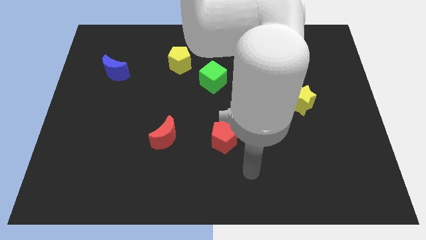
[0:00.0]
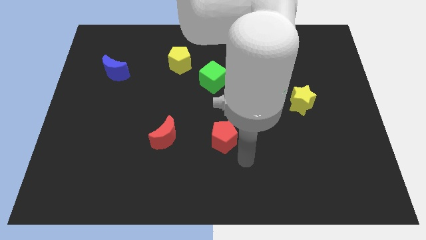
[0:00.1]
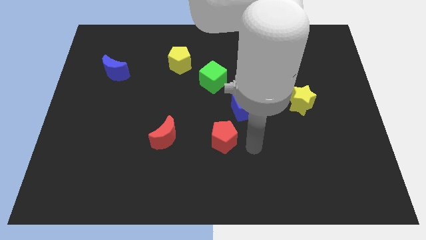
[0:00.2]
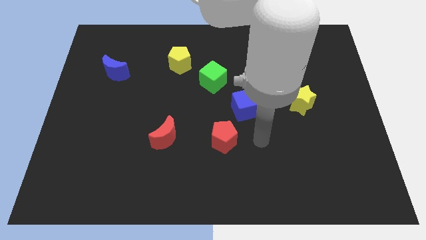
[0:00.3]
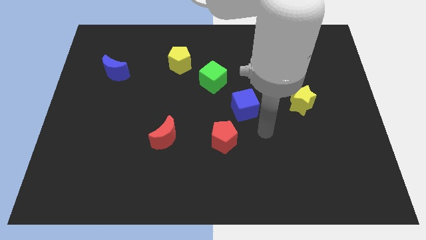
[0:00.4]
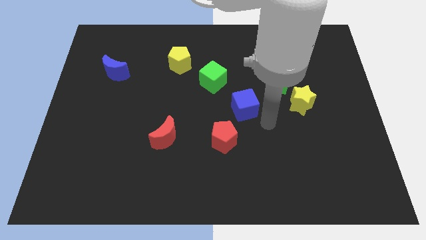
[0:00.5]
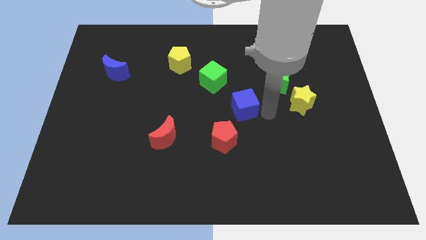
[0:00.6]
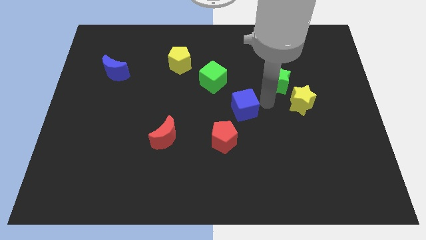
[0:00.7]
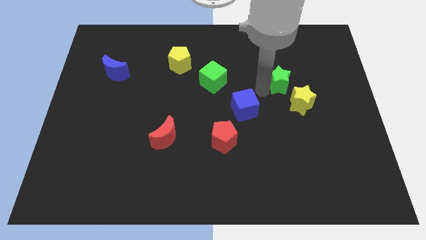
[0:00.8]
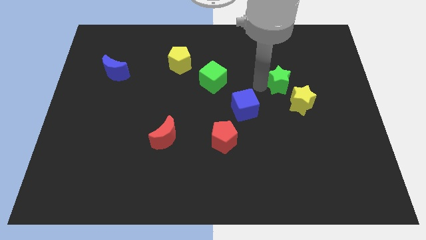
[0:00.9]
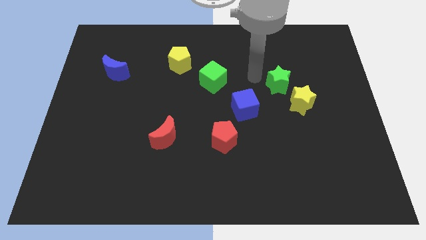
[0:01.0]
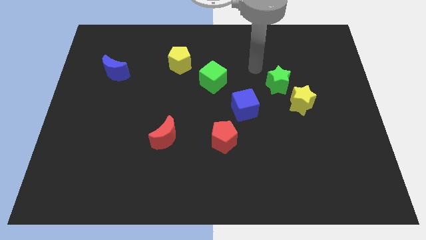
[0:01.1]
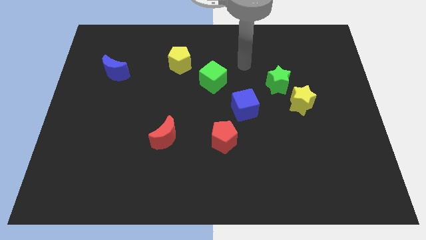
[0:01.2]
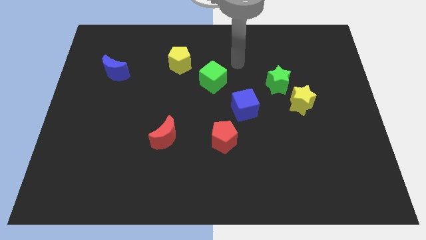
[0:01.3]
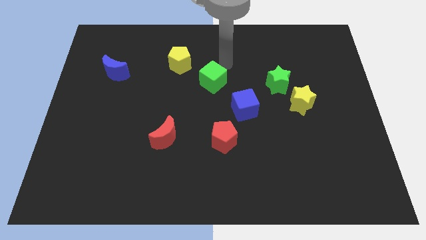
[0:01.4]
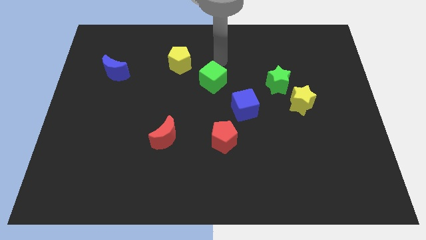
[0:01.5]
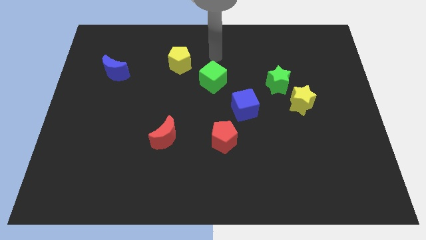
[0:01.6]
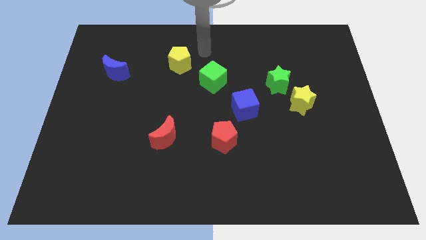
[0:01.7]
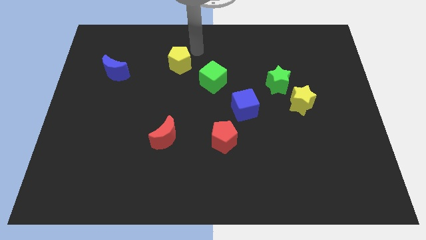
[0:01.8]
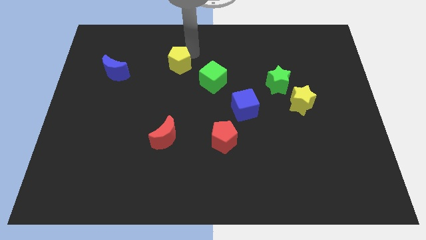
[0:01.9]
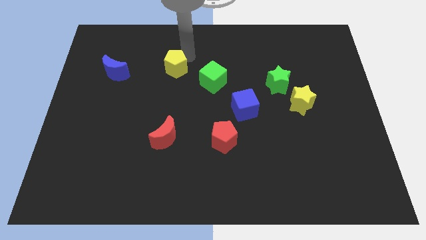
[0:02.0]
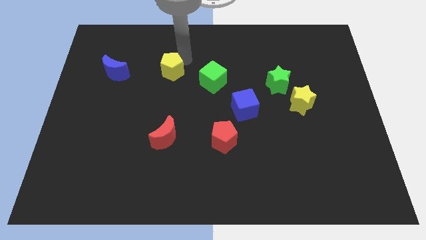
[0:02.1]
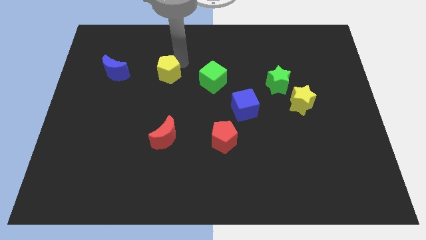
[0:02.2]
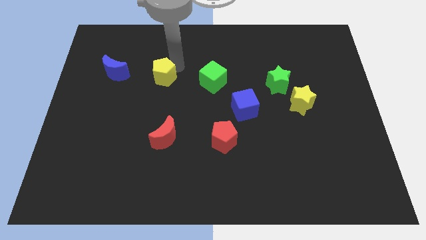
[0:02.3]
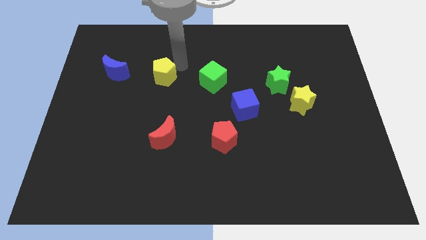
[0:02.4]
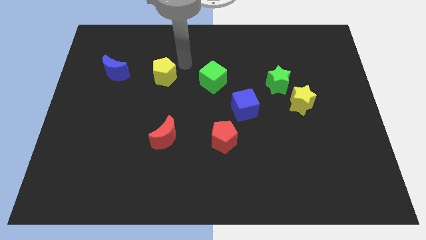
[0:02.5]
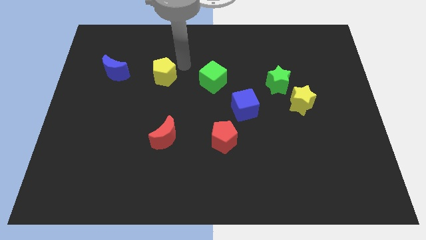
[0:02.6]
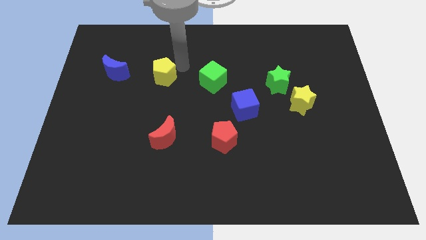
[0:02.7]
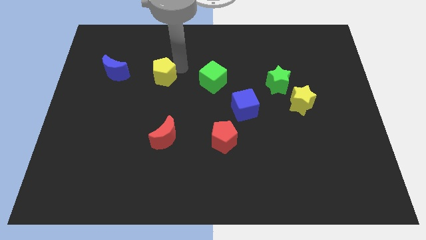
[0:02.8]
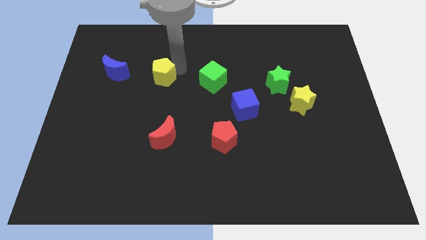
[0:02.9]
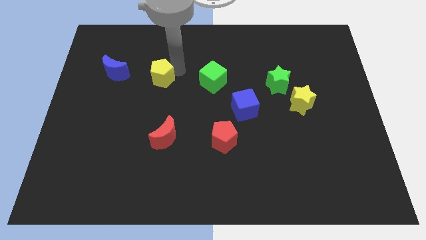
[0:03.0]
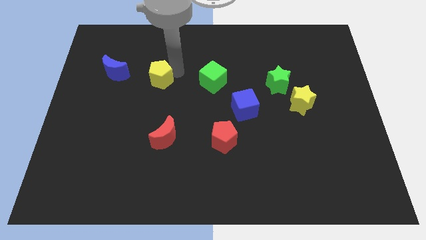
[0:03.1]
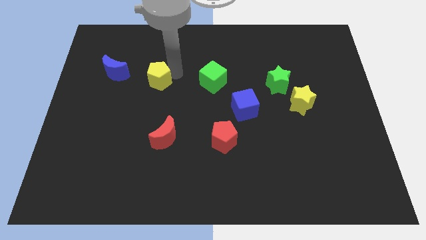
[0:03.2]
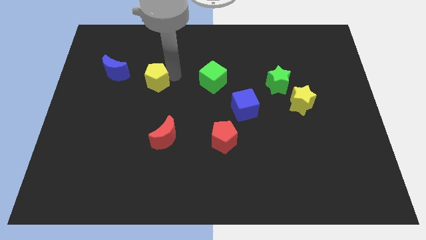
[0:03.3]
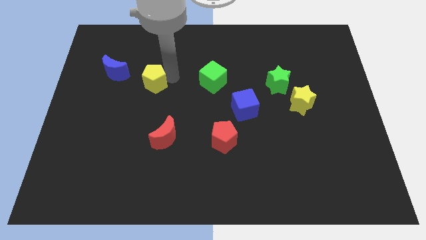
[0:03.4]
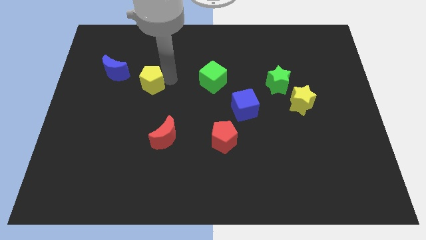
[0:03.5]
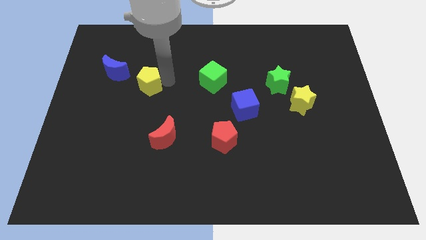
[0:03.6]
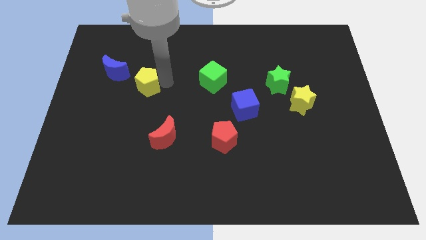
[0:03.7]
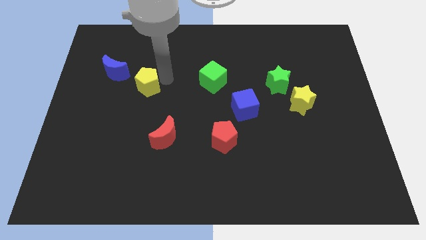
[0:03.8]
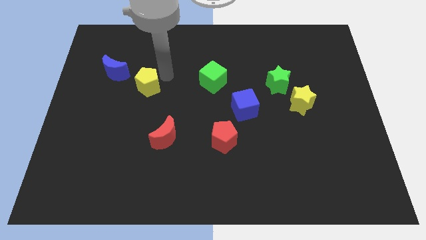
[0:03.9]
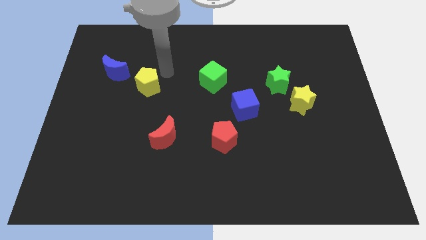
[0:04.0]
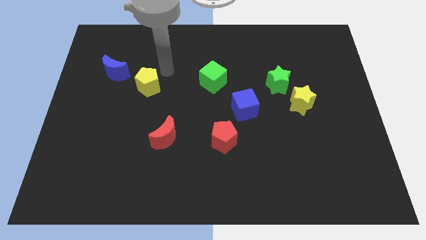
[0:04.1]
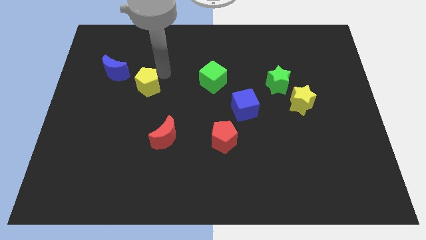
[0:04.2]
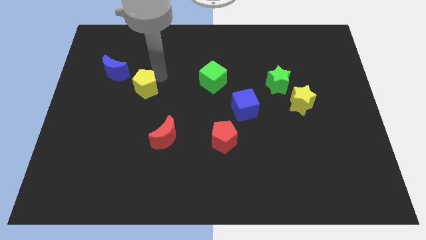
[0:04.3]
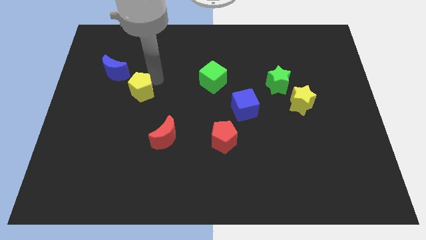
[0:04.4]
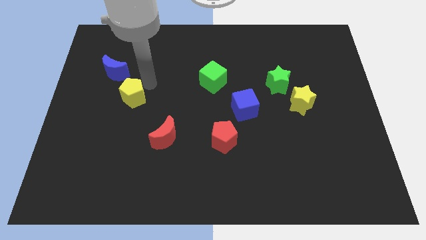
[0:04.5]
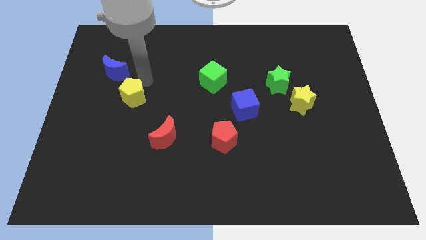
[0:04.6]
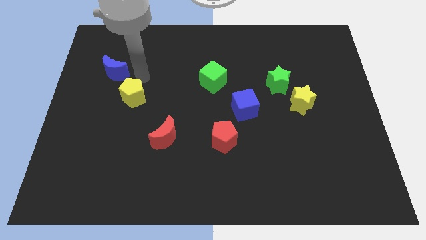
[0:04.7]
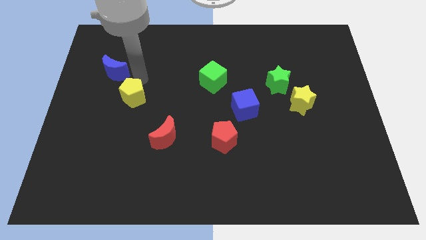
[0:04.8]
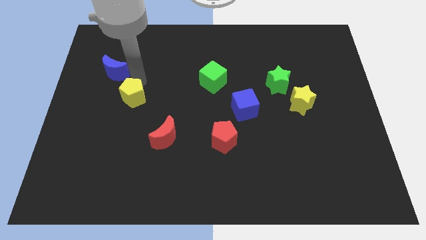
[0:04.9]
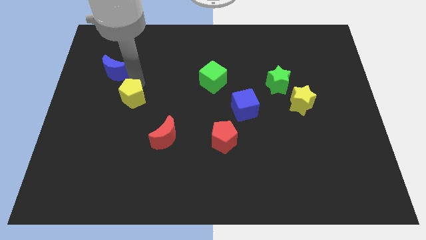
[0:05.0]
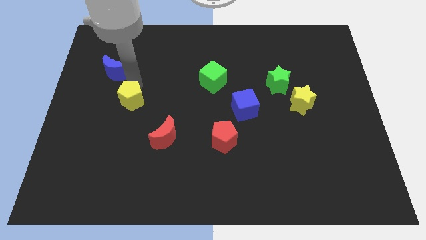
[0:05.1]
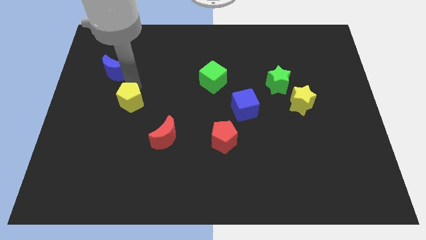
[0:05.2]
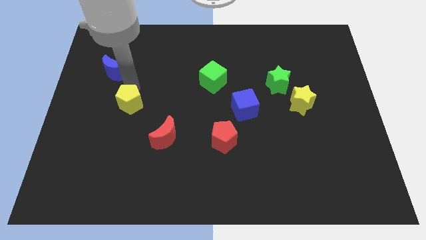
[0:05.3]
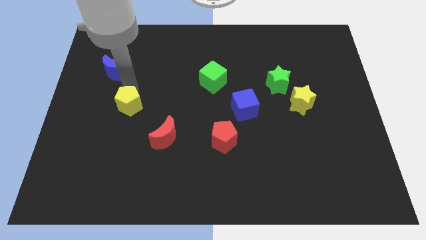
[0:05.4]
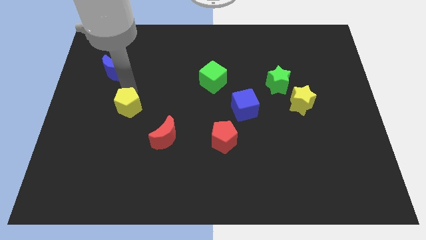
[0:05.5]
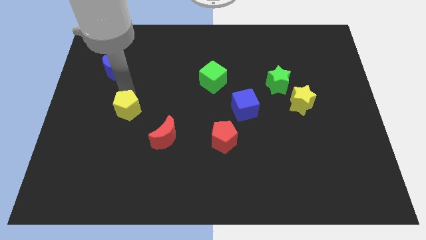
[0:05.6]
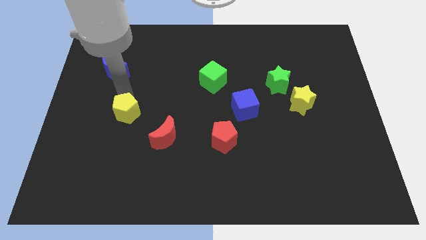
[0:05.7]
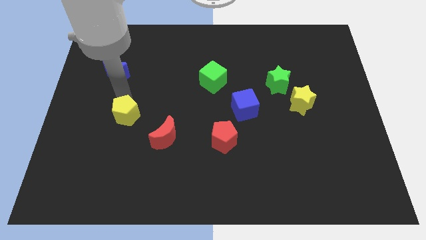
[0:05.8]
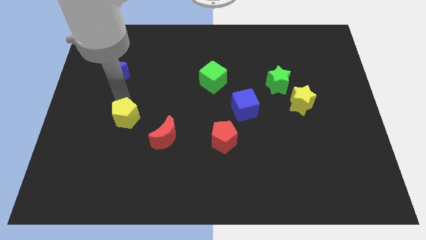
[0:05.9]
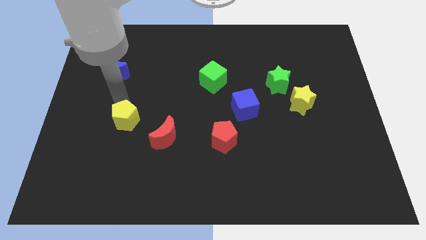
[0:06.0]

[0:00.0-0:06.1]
move the yellow pentagon to the left side of the red moon

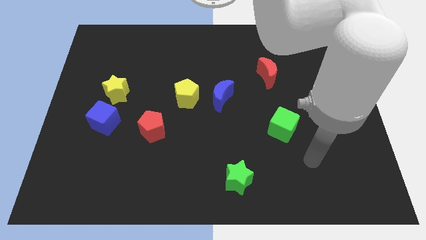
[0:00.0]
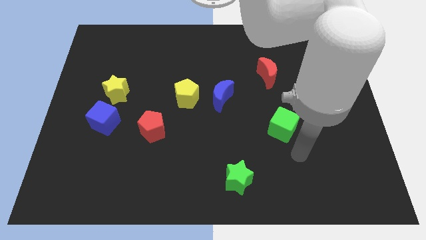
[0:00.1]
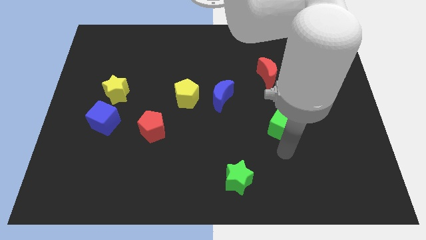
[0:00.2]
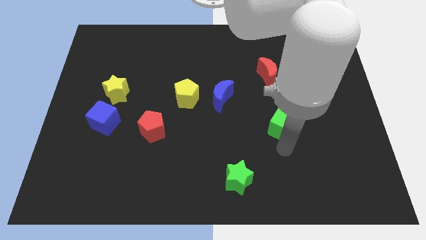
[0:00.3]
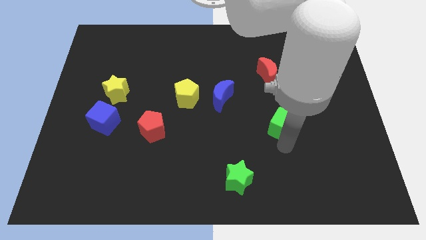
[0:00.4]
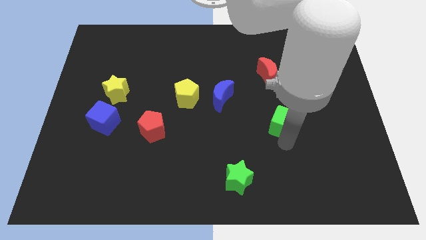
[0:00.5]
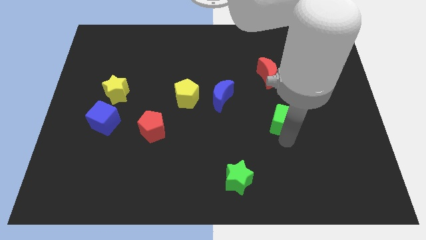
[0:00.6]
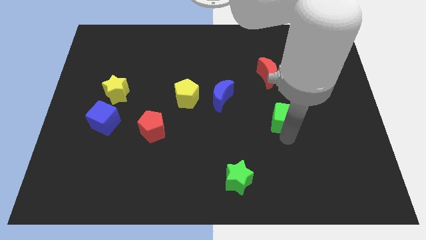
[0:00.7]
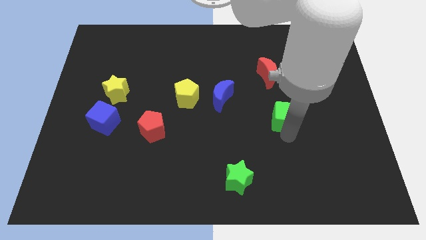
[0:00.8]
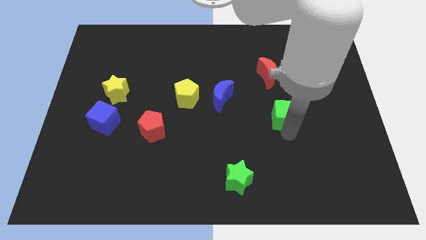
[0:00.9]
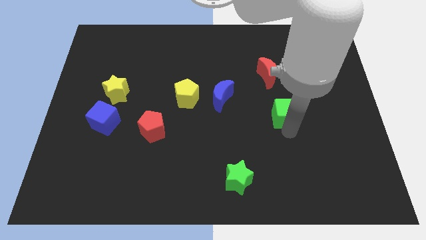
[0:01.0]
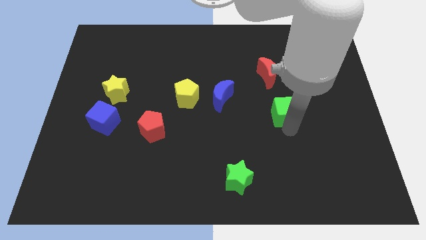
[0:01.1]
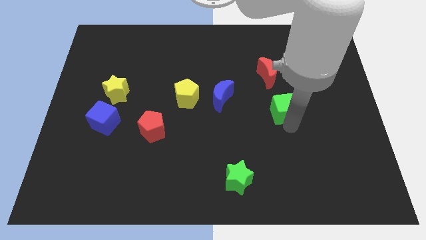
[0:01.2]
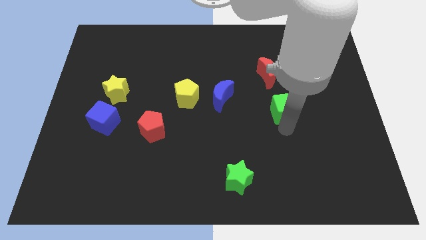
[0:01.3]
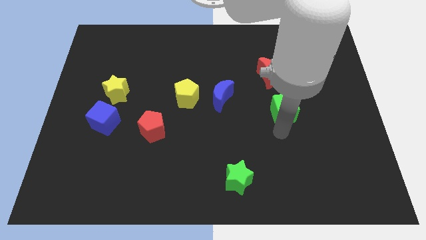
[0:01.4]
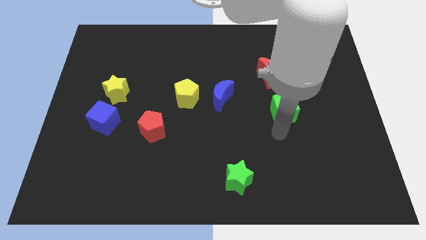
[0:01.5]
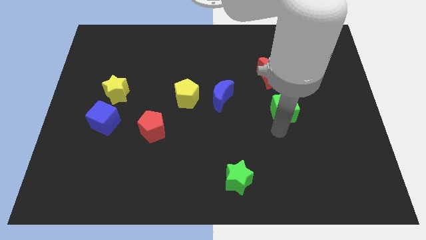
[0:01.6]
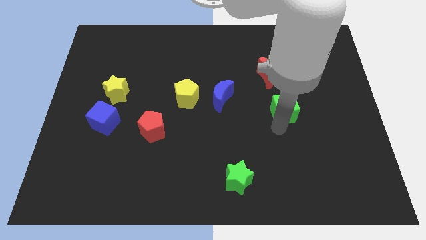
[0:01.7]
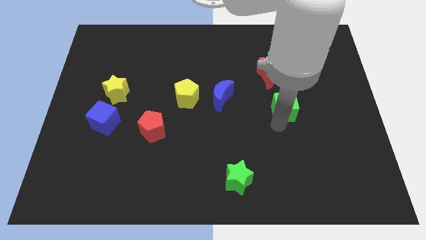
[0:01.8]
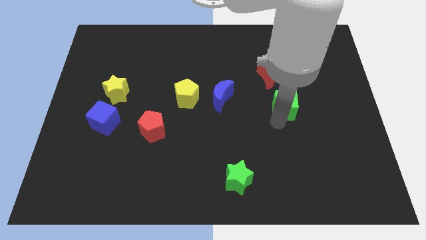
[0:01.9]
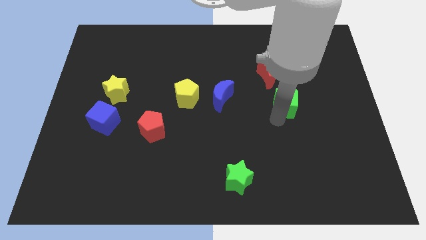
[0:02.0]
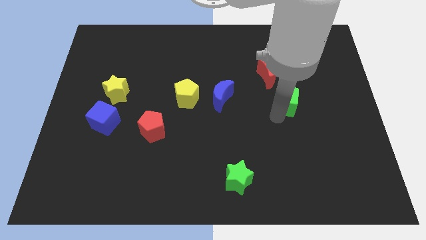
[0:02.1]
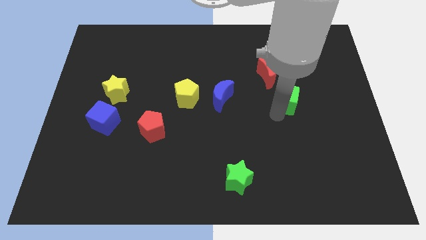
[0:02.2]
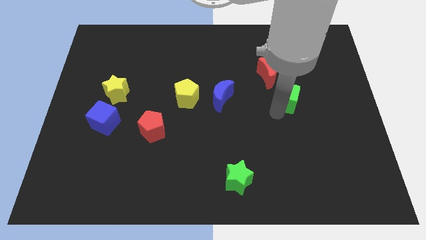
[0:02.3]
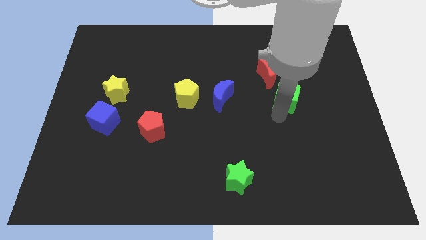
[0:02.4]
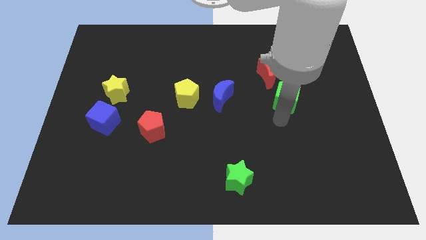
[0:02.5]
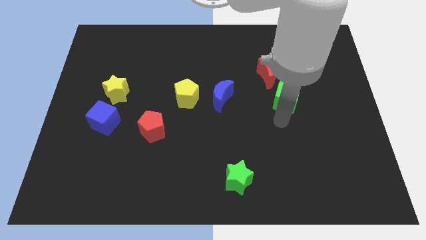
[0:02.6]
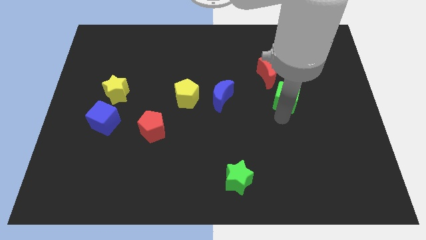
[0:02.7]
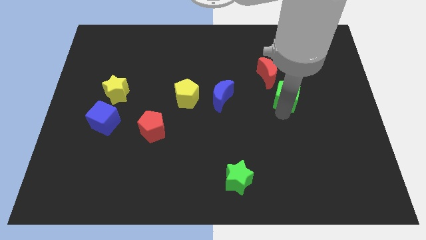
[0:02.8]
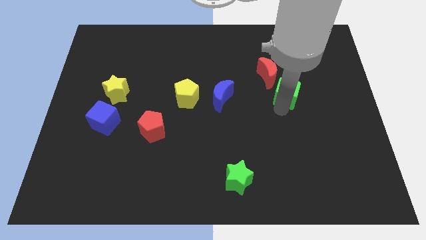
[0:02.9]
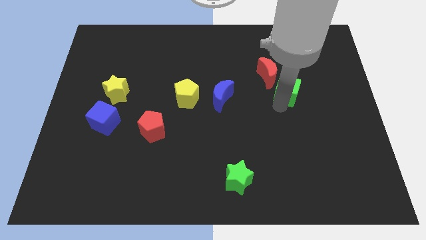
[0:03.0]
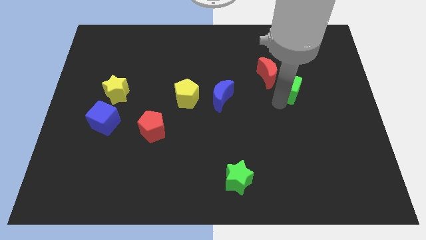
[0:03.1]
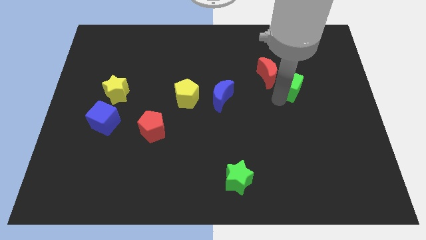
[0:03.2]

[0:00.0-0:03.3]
put the green cube just right of the red moon
